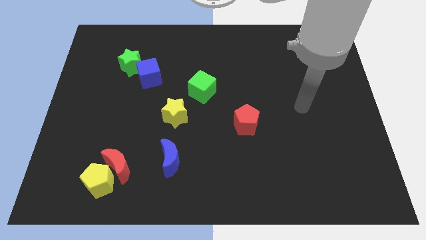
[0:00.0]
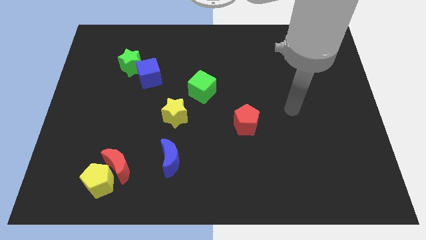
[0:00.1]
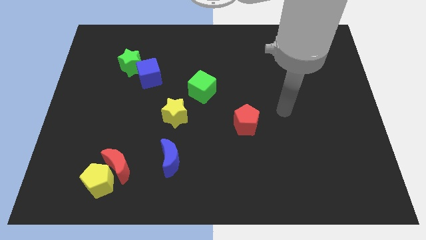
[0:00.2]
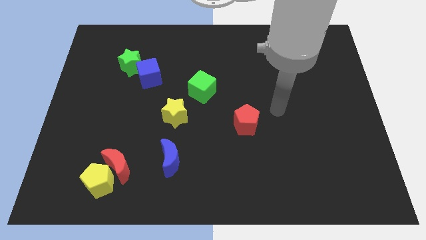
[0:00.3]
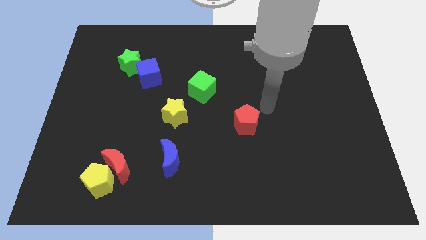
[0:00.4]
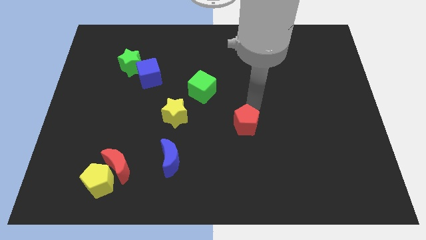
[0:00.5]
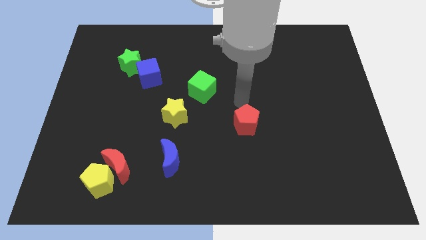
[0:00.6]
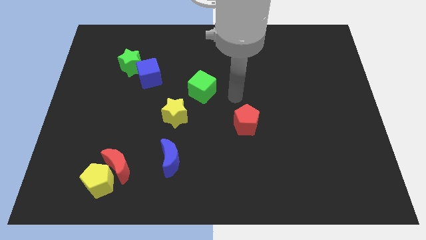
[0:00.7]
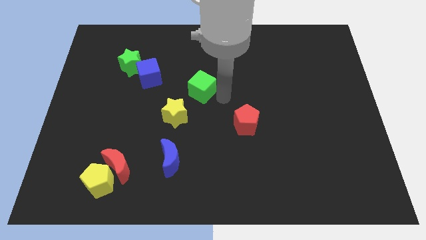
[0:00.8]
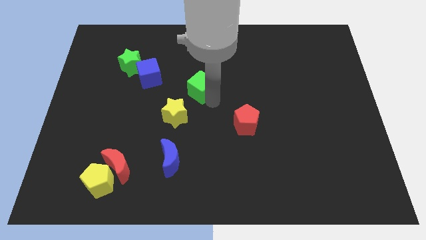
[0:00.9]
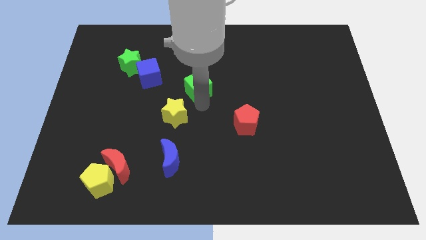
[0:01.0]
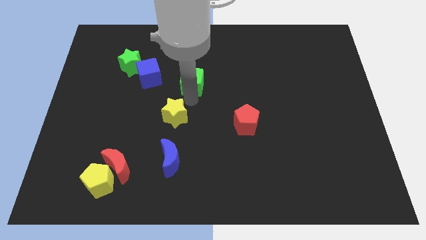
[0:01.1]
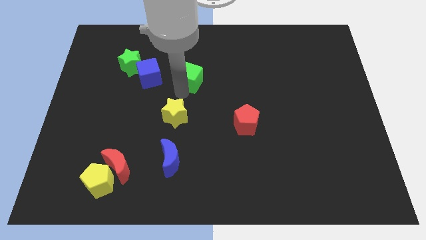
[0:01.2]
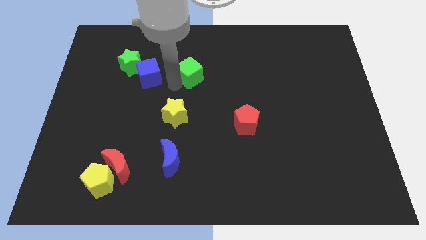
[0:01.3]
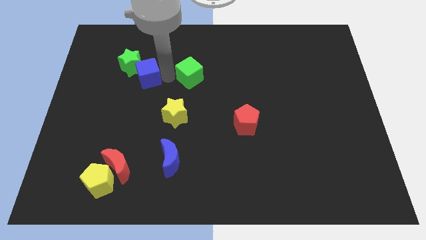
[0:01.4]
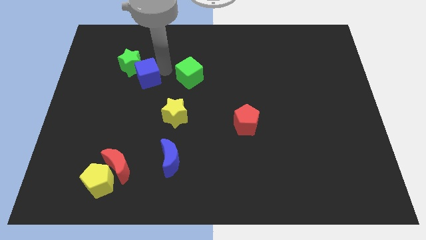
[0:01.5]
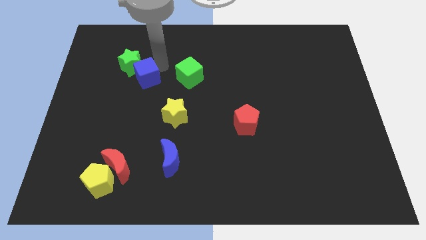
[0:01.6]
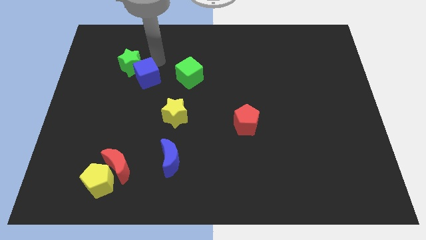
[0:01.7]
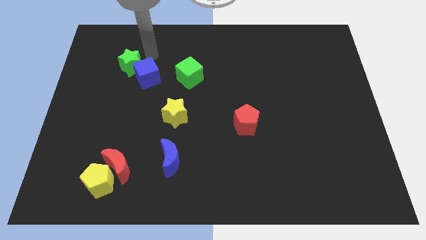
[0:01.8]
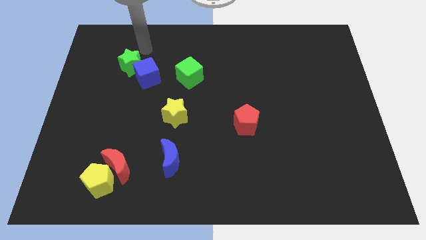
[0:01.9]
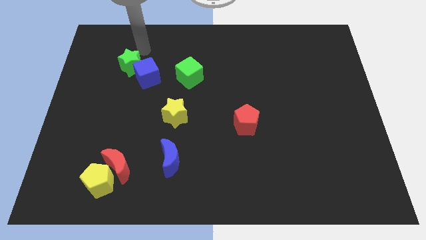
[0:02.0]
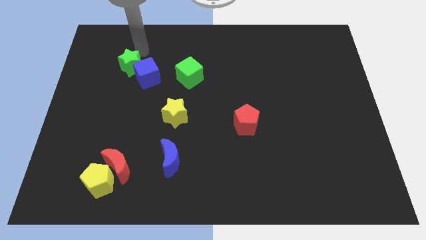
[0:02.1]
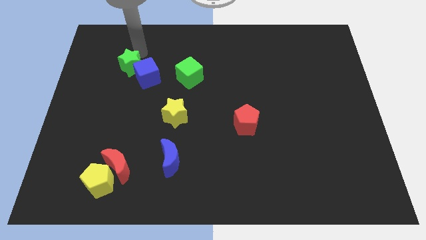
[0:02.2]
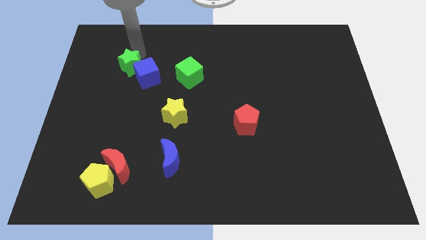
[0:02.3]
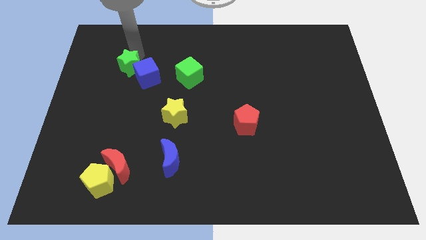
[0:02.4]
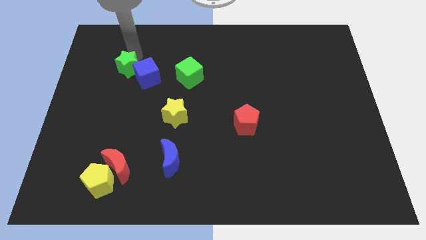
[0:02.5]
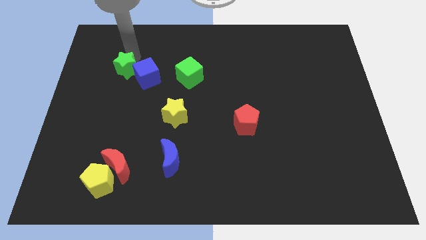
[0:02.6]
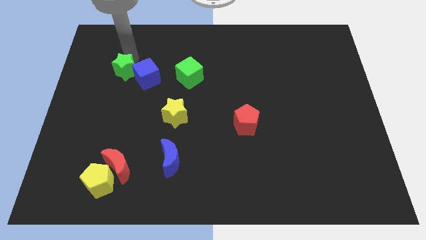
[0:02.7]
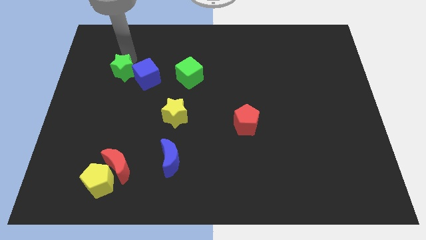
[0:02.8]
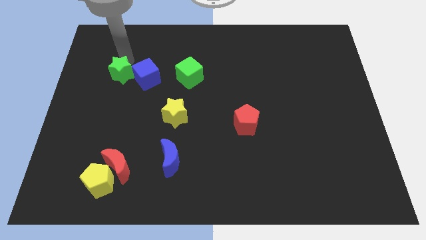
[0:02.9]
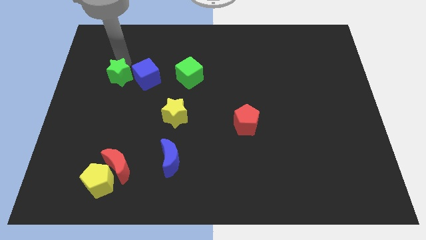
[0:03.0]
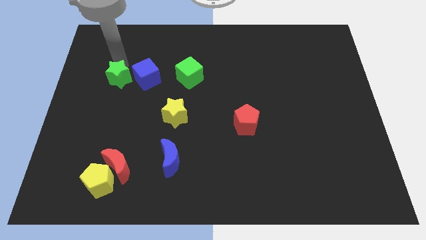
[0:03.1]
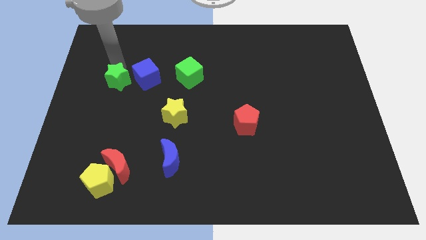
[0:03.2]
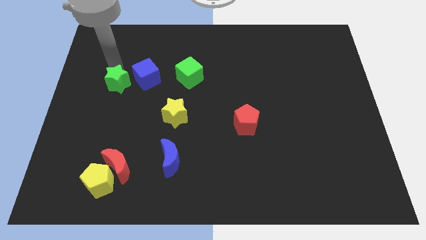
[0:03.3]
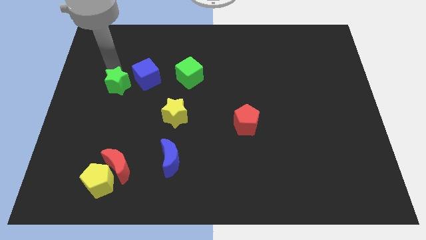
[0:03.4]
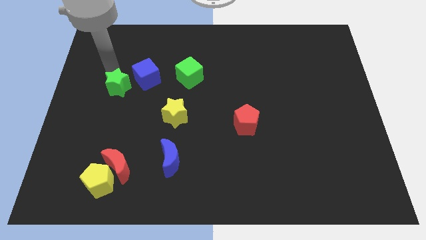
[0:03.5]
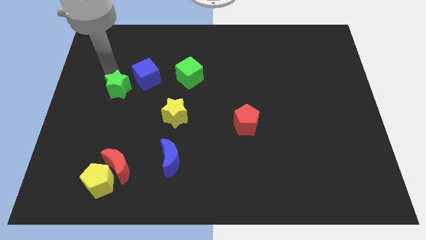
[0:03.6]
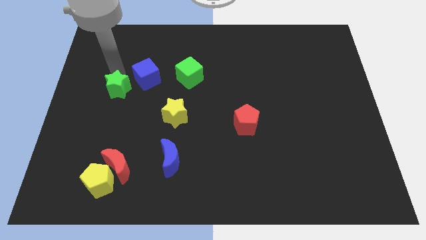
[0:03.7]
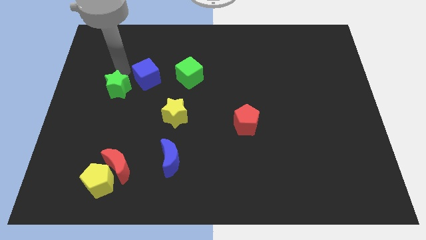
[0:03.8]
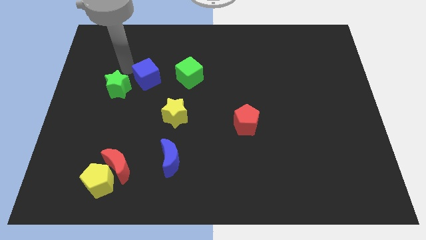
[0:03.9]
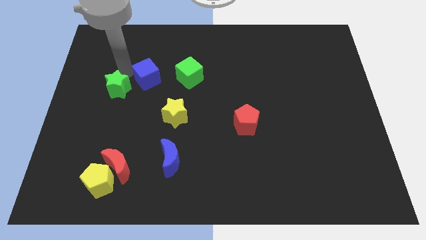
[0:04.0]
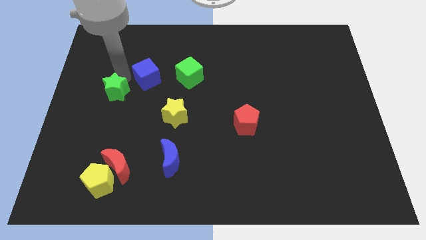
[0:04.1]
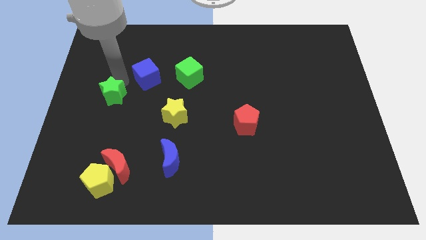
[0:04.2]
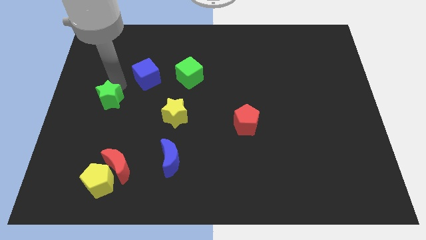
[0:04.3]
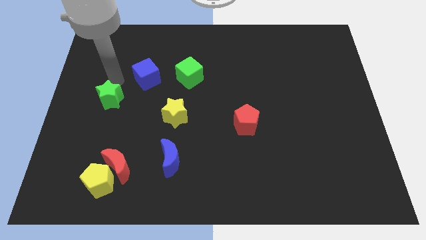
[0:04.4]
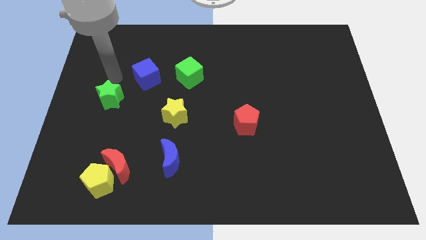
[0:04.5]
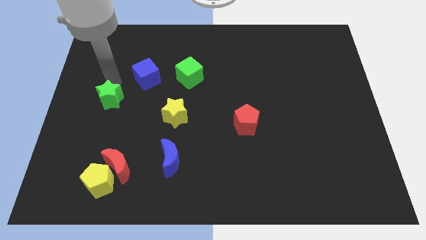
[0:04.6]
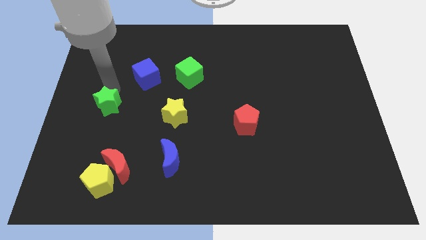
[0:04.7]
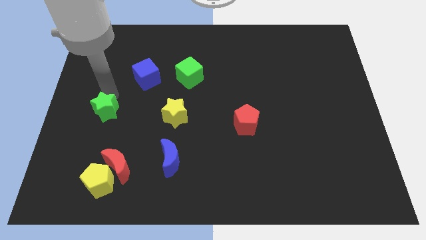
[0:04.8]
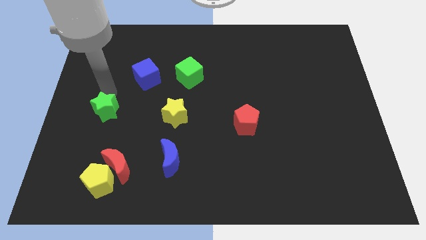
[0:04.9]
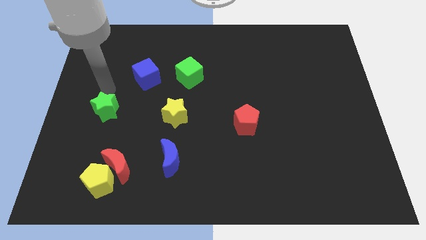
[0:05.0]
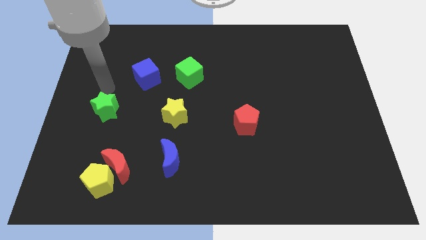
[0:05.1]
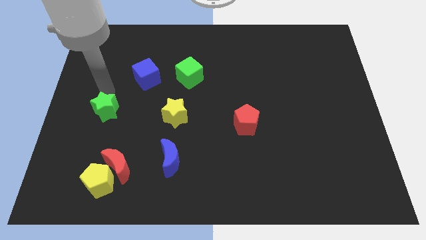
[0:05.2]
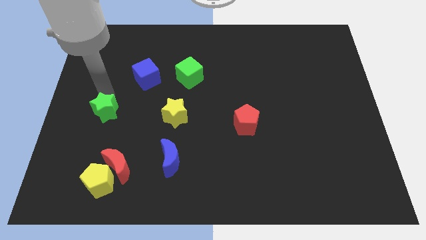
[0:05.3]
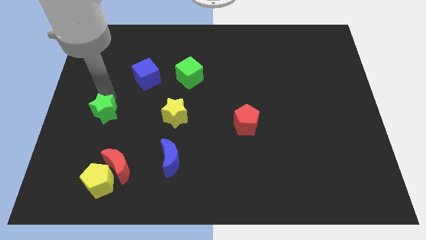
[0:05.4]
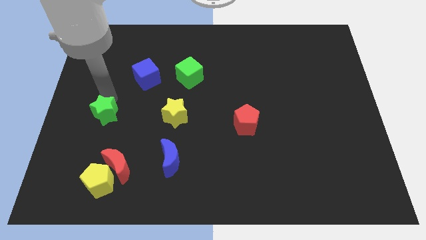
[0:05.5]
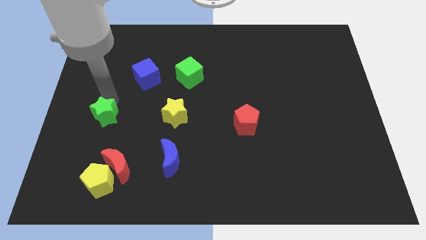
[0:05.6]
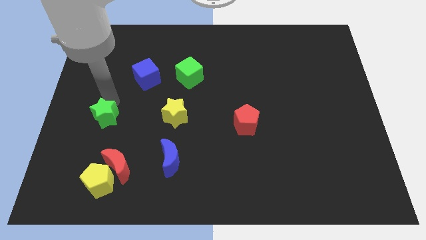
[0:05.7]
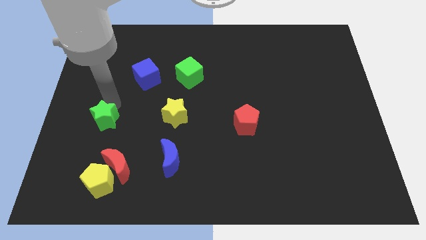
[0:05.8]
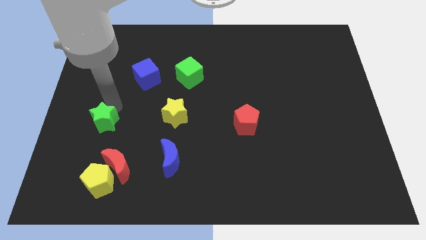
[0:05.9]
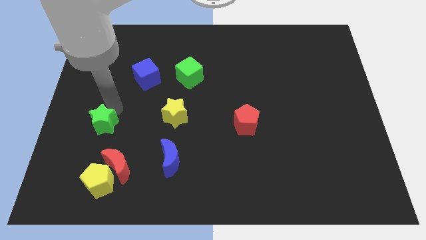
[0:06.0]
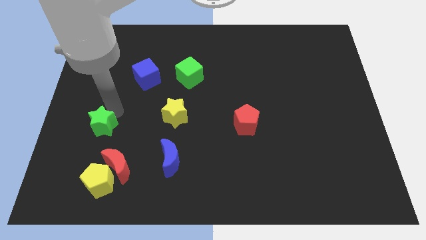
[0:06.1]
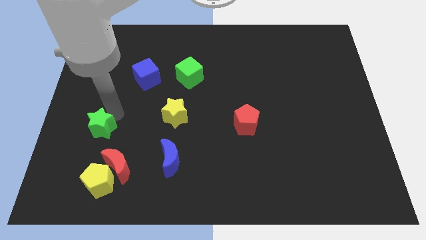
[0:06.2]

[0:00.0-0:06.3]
push the green star to the top left side of the red moon

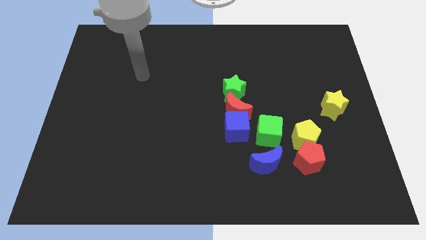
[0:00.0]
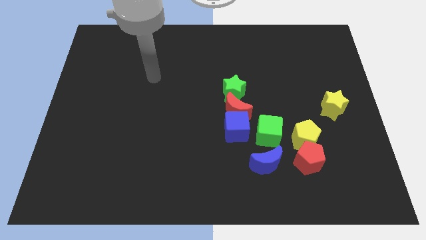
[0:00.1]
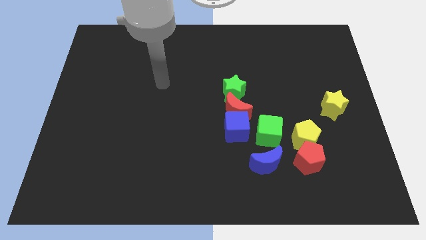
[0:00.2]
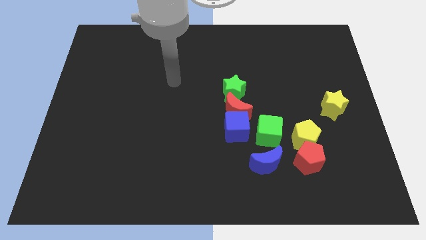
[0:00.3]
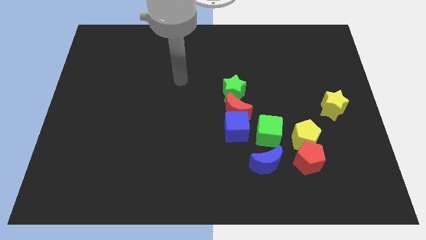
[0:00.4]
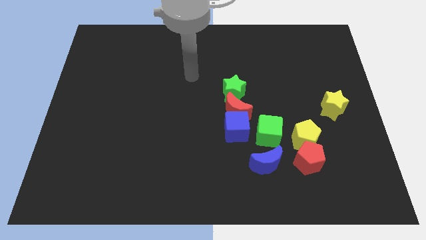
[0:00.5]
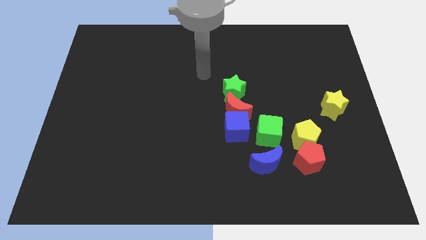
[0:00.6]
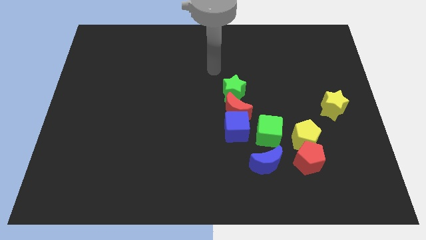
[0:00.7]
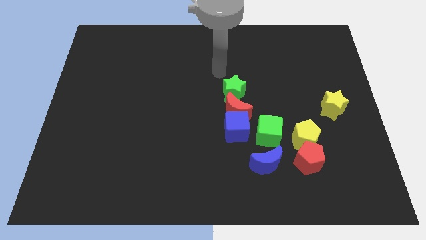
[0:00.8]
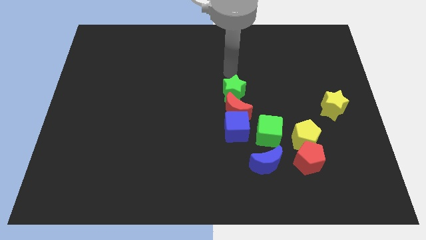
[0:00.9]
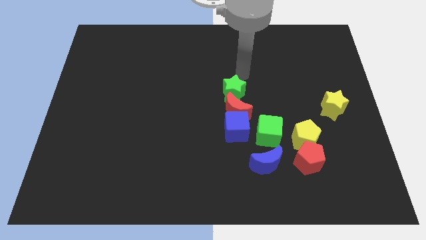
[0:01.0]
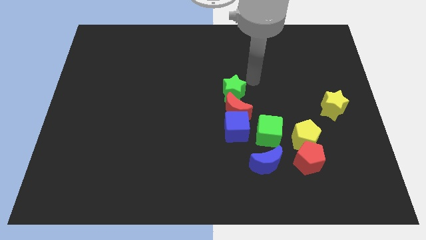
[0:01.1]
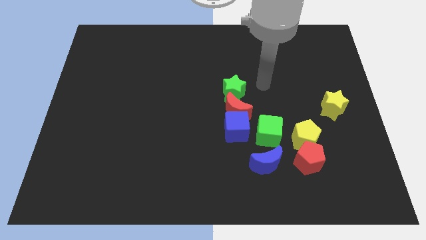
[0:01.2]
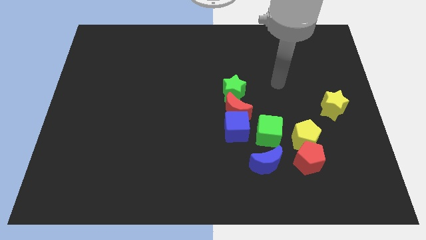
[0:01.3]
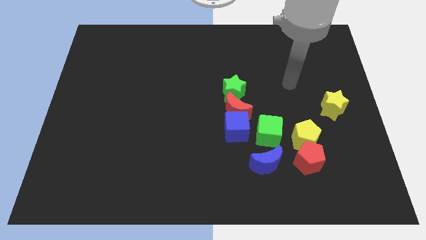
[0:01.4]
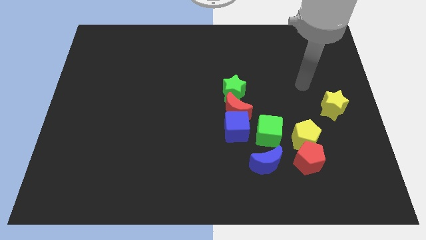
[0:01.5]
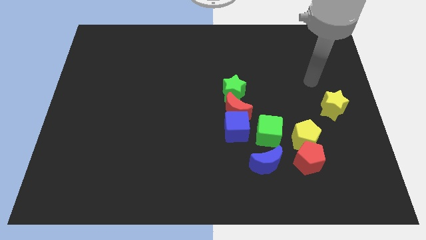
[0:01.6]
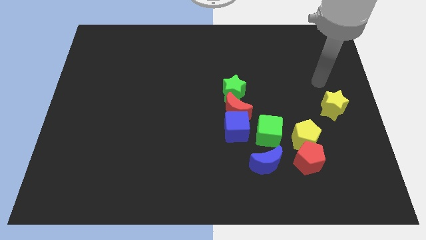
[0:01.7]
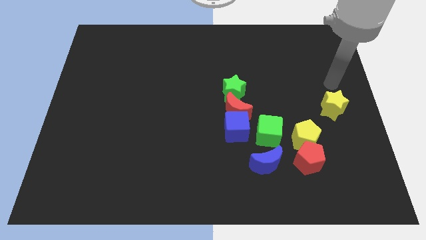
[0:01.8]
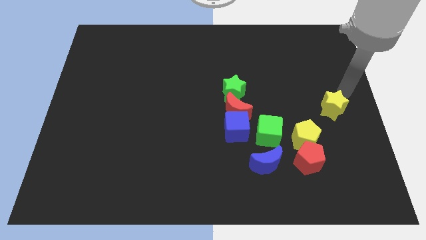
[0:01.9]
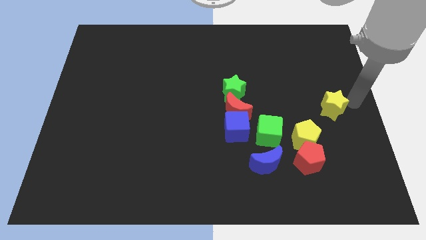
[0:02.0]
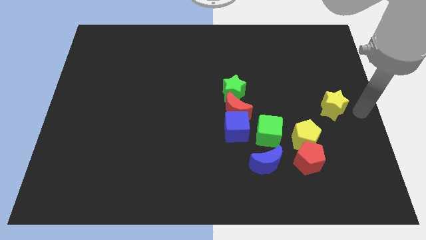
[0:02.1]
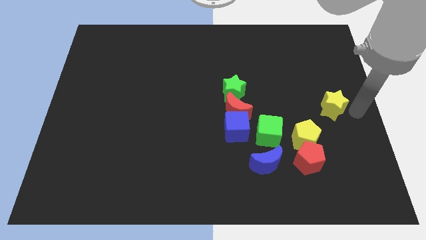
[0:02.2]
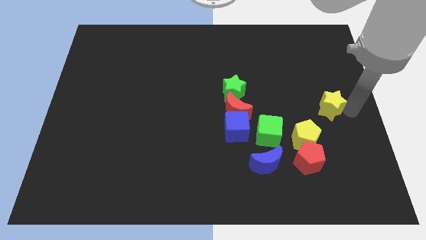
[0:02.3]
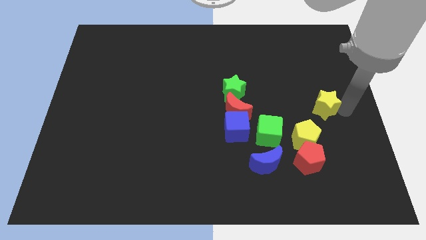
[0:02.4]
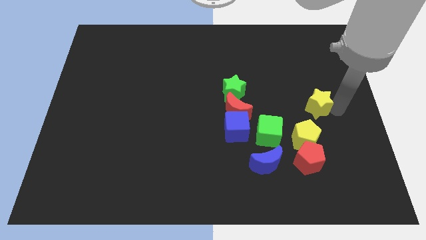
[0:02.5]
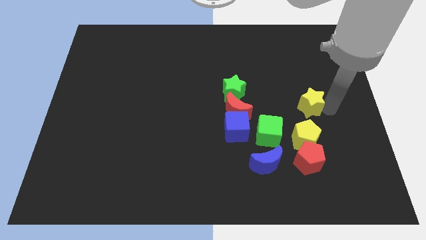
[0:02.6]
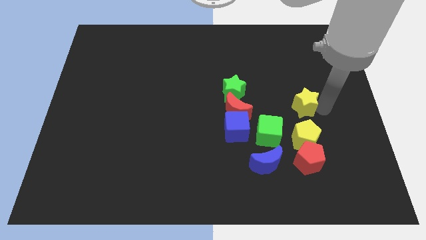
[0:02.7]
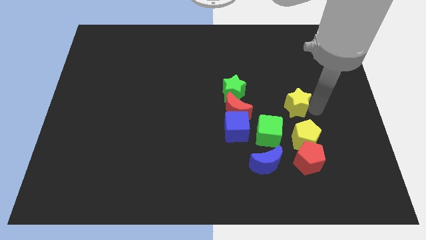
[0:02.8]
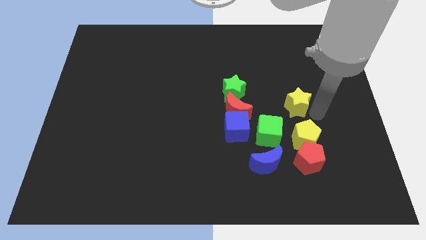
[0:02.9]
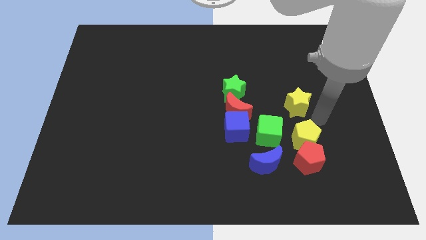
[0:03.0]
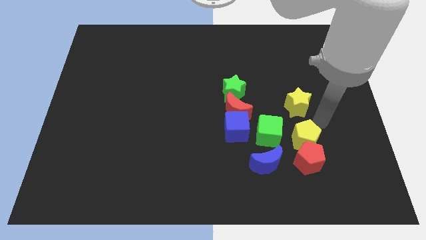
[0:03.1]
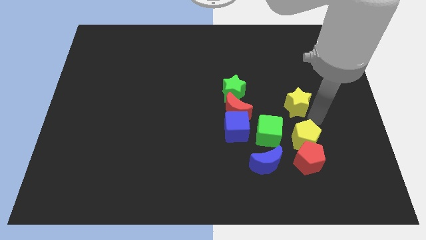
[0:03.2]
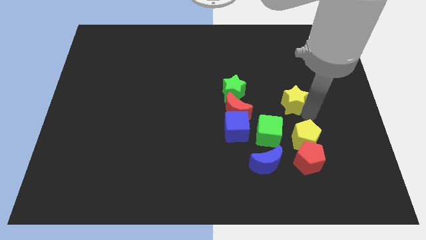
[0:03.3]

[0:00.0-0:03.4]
push the yellow star just right of the green star
